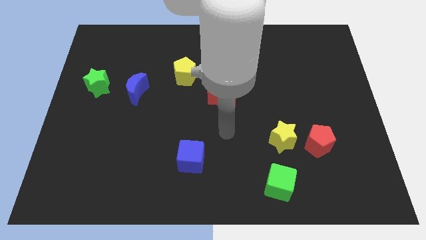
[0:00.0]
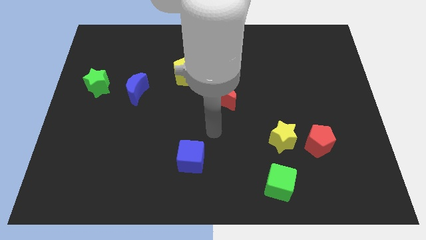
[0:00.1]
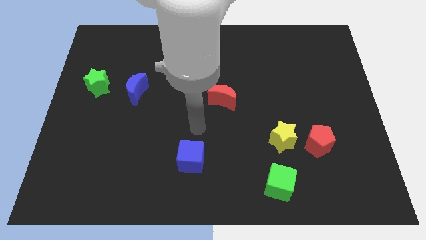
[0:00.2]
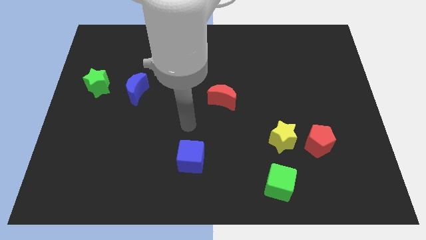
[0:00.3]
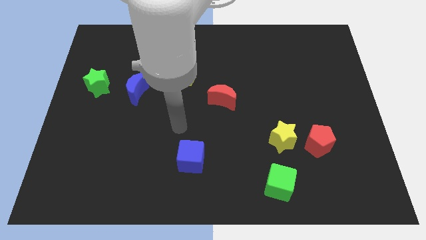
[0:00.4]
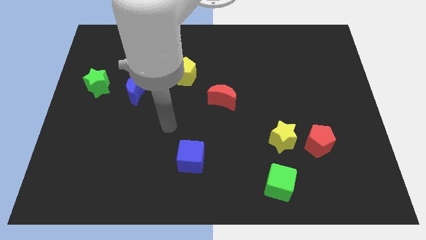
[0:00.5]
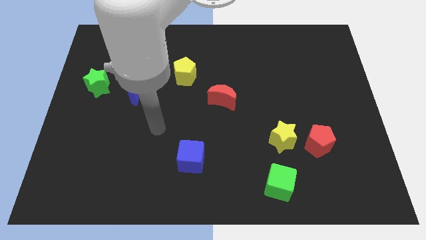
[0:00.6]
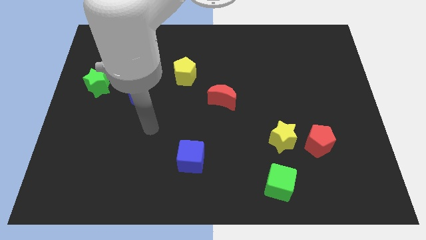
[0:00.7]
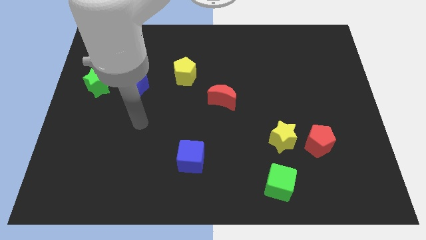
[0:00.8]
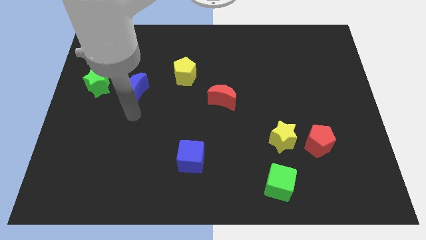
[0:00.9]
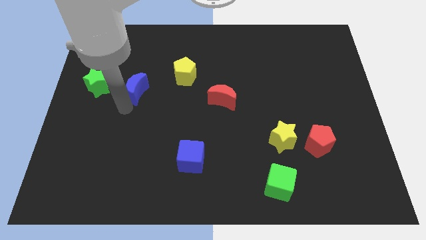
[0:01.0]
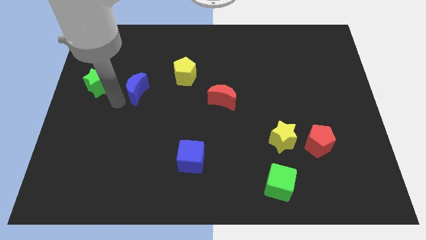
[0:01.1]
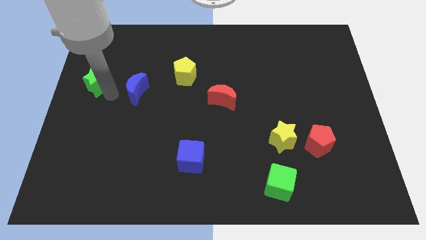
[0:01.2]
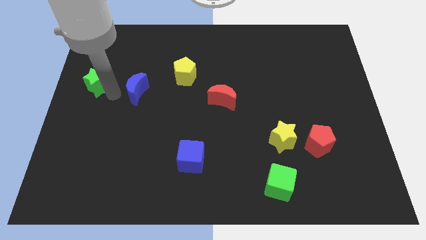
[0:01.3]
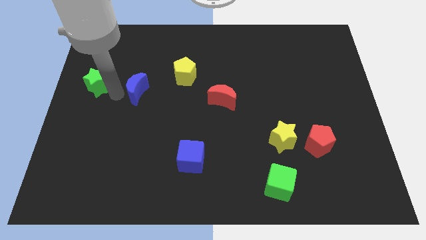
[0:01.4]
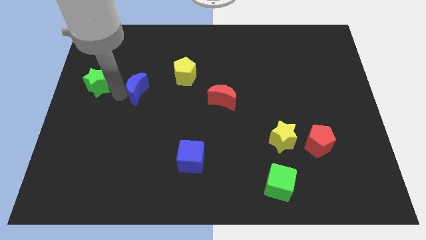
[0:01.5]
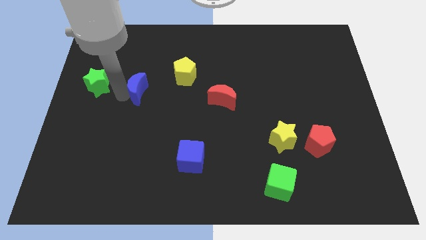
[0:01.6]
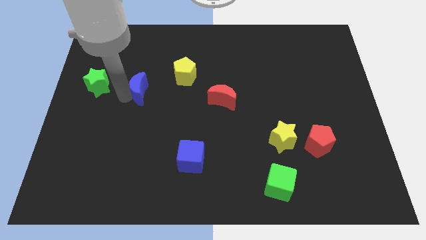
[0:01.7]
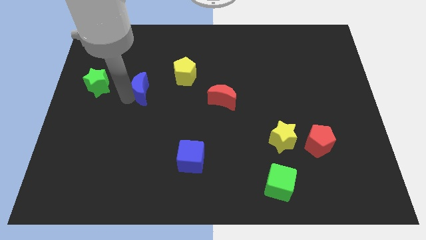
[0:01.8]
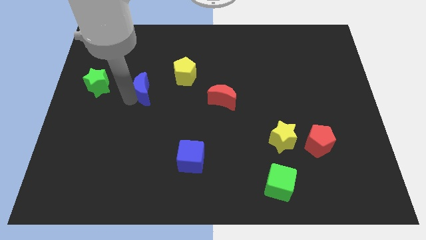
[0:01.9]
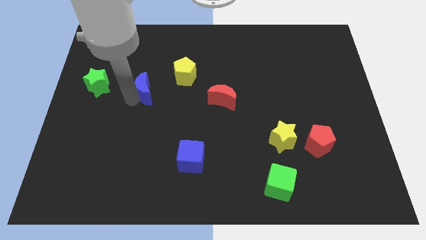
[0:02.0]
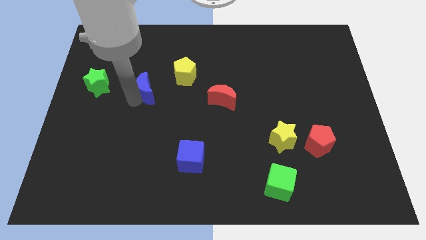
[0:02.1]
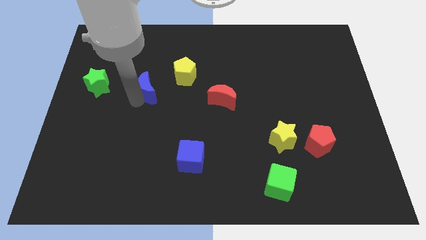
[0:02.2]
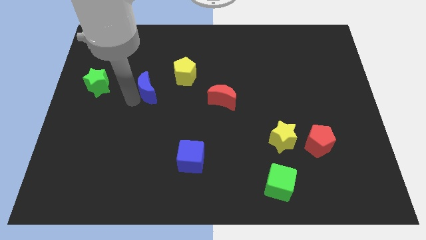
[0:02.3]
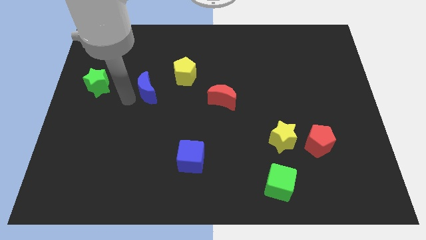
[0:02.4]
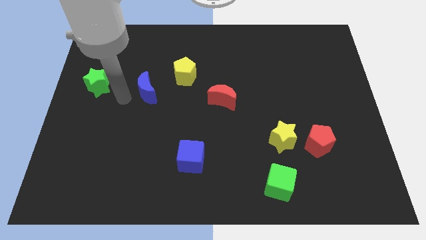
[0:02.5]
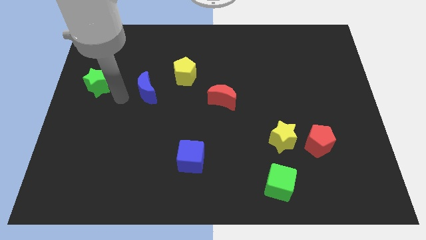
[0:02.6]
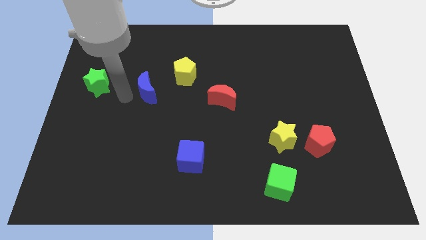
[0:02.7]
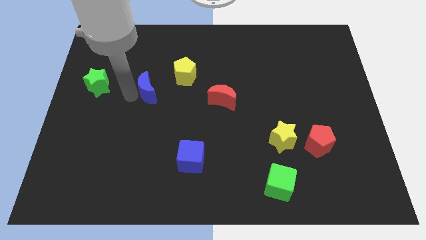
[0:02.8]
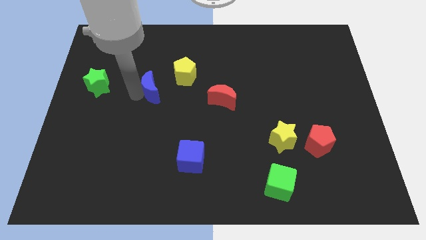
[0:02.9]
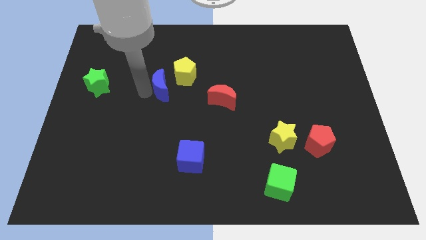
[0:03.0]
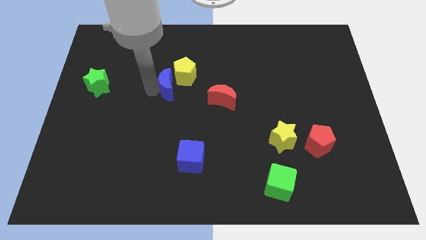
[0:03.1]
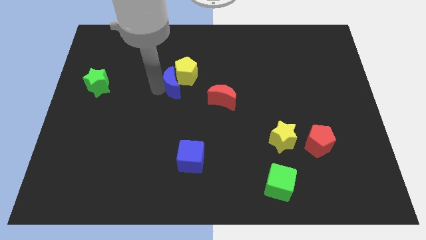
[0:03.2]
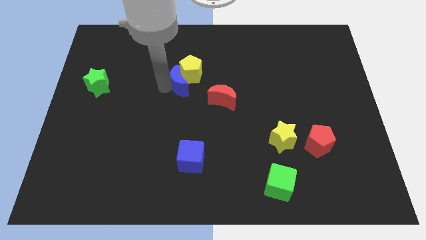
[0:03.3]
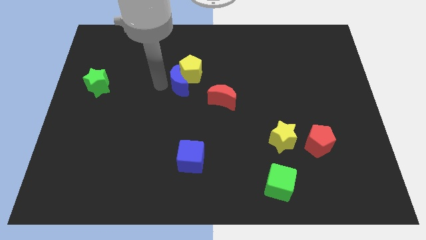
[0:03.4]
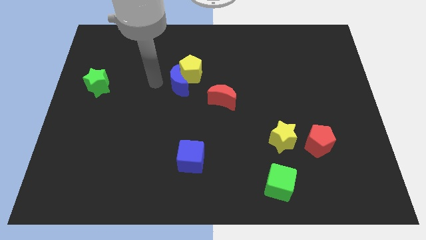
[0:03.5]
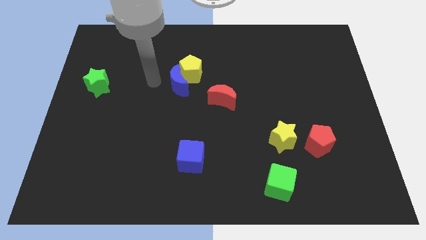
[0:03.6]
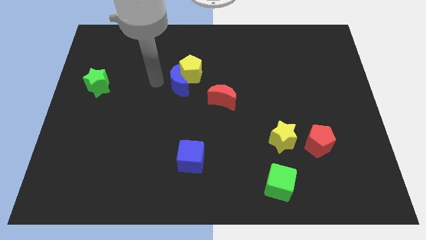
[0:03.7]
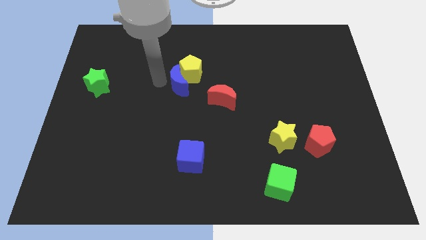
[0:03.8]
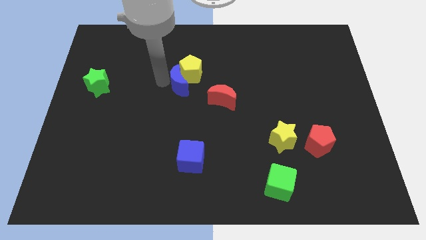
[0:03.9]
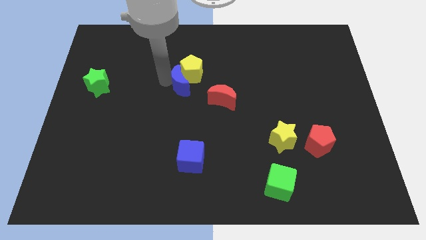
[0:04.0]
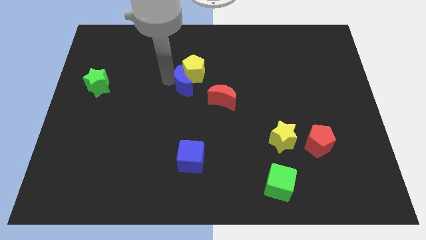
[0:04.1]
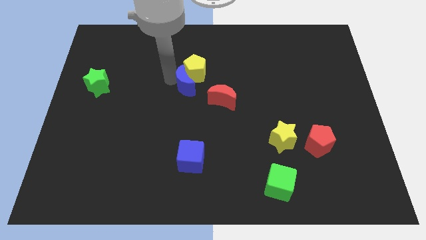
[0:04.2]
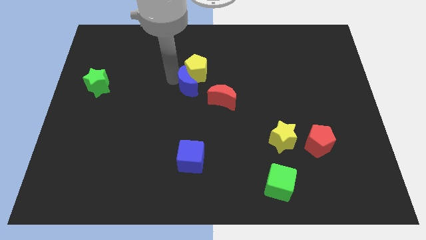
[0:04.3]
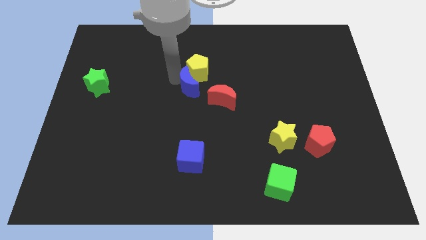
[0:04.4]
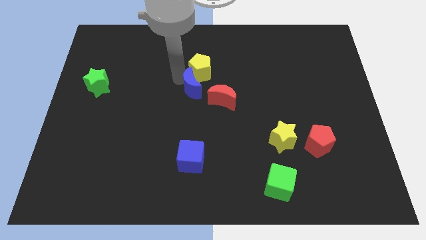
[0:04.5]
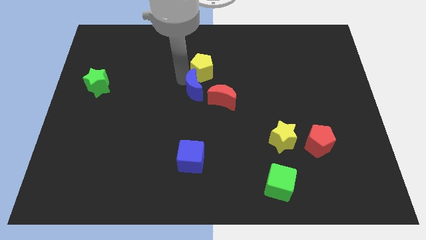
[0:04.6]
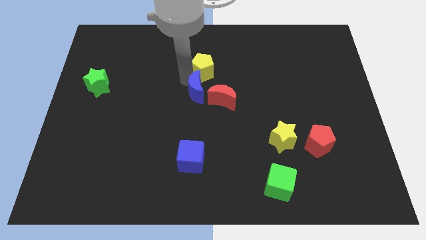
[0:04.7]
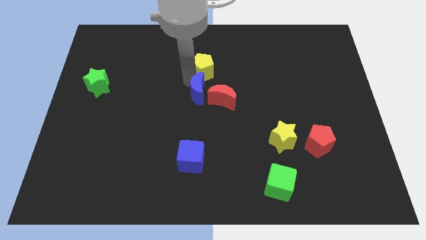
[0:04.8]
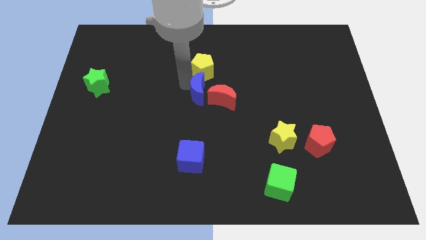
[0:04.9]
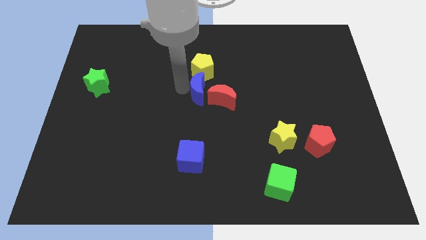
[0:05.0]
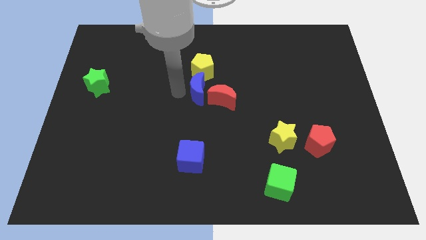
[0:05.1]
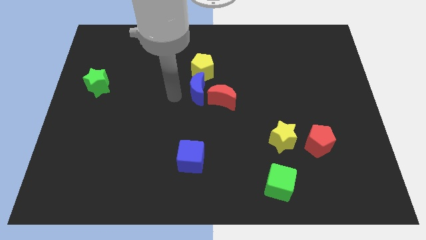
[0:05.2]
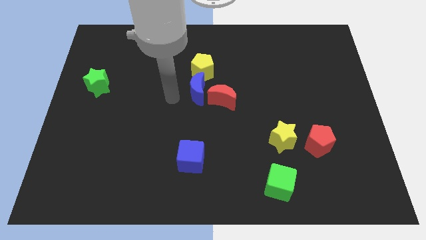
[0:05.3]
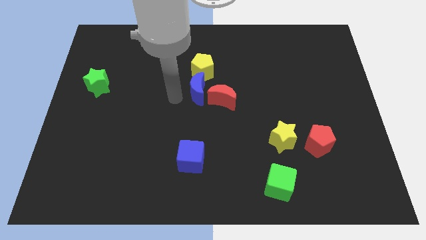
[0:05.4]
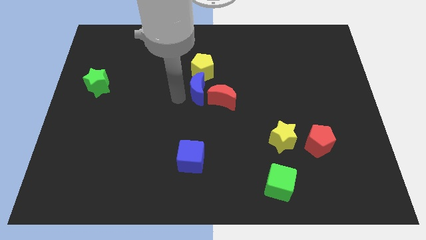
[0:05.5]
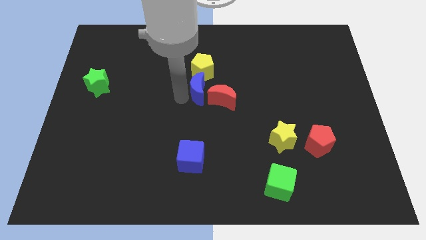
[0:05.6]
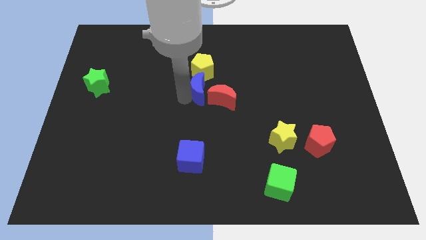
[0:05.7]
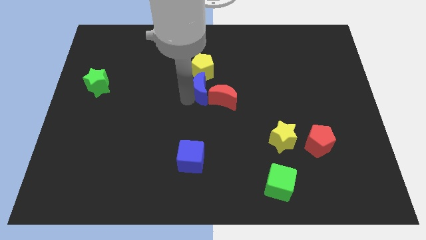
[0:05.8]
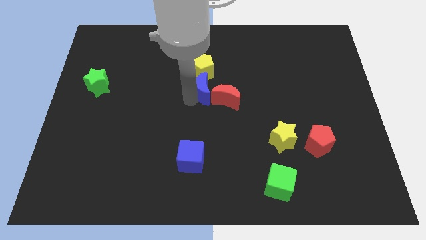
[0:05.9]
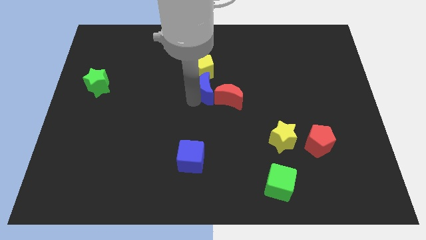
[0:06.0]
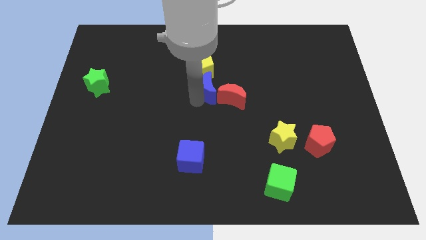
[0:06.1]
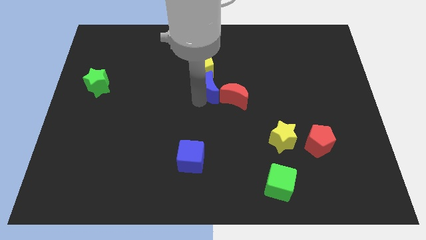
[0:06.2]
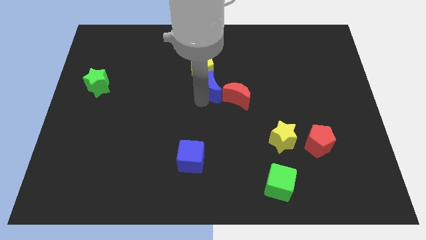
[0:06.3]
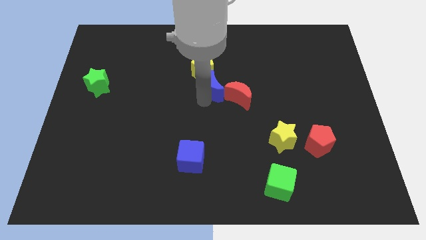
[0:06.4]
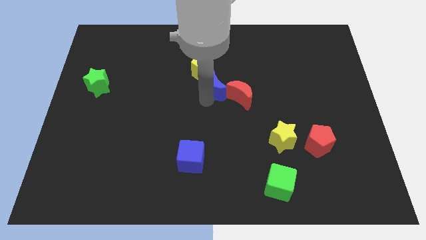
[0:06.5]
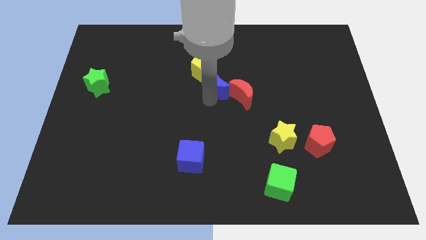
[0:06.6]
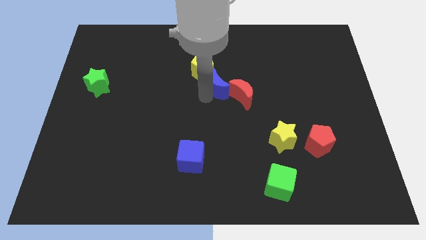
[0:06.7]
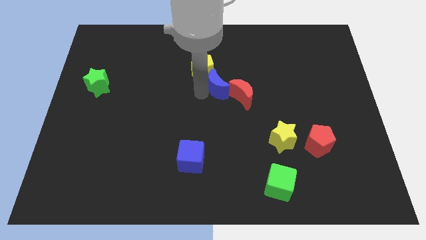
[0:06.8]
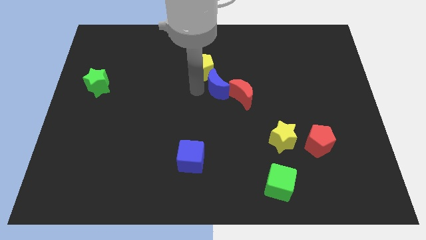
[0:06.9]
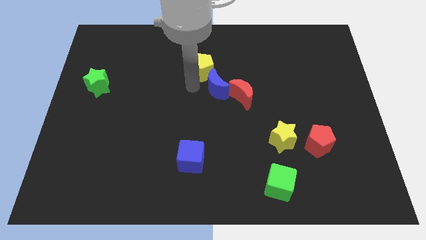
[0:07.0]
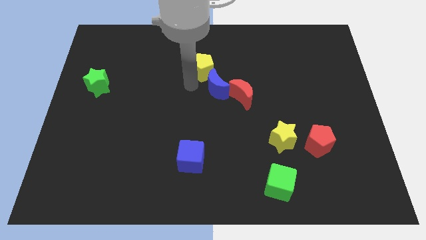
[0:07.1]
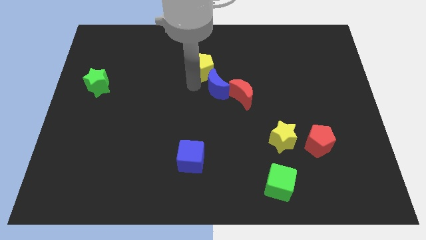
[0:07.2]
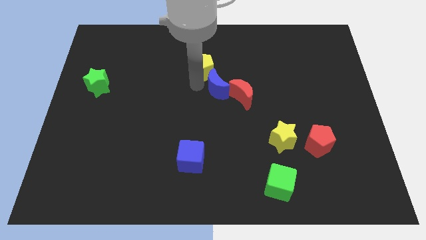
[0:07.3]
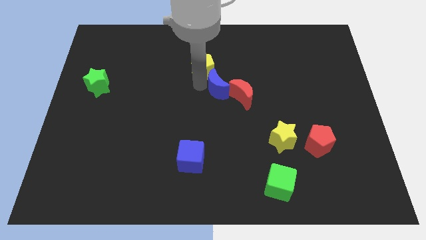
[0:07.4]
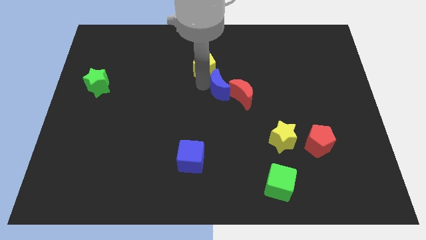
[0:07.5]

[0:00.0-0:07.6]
push the blue moon to the right

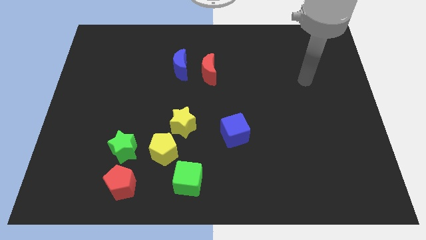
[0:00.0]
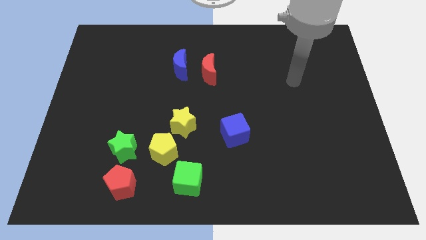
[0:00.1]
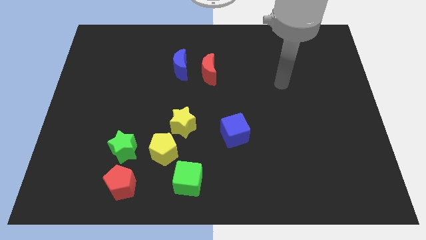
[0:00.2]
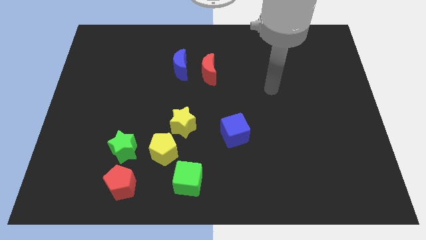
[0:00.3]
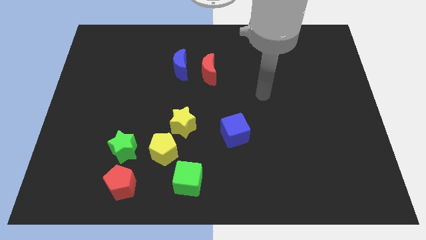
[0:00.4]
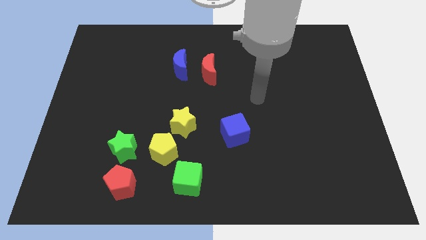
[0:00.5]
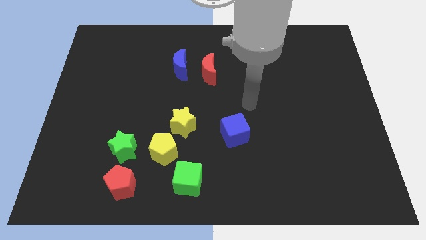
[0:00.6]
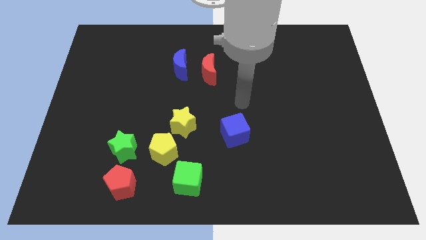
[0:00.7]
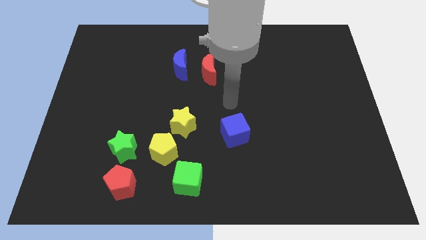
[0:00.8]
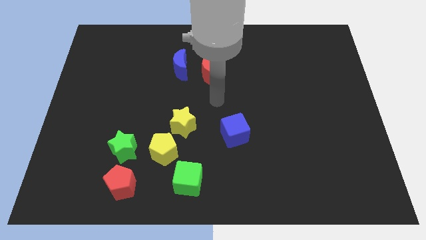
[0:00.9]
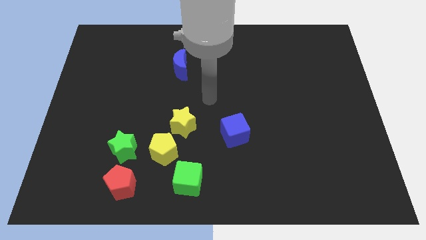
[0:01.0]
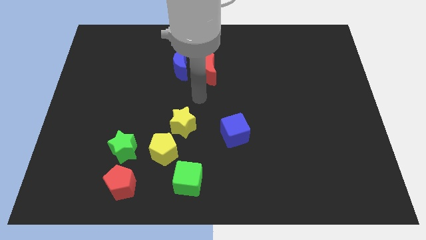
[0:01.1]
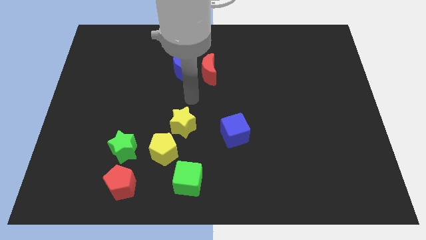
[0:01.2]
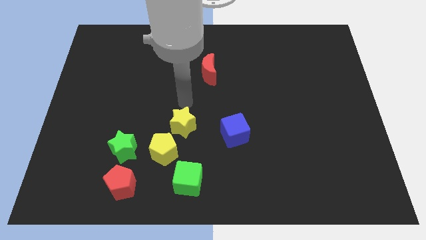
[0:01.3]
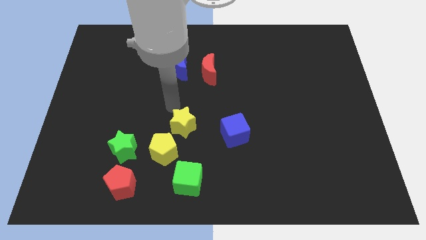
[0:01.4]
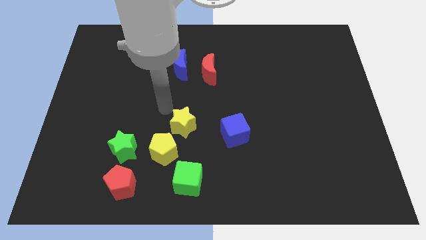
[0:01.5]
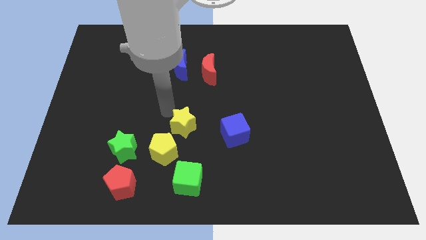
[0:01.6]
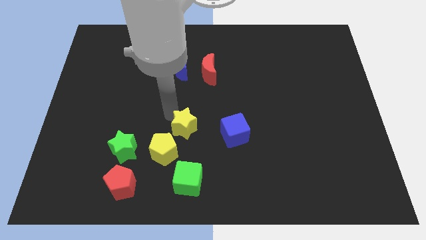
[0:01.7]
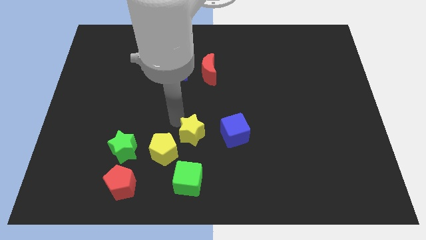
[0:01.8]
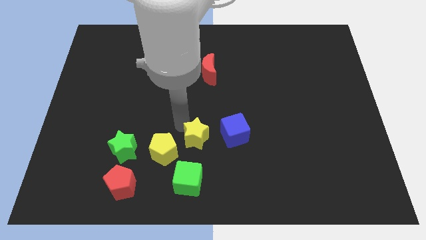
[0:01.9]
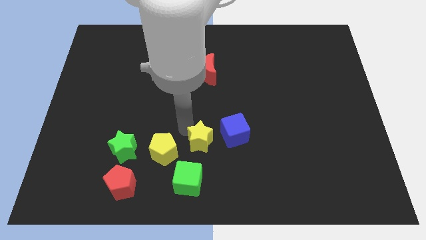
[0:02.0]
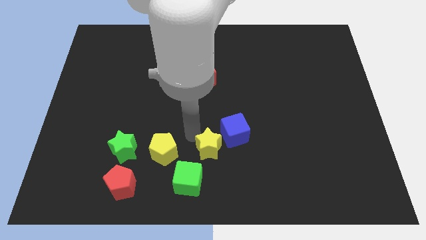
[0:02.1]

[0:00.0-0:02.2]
slide the yellow star downwards and then right a bit
